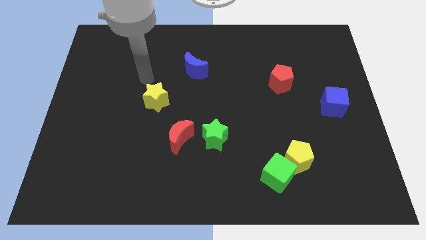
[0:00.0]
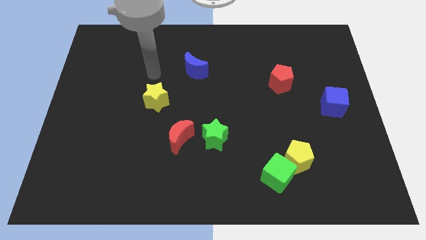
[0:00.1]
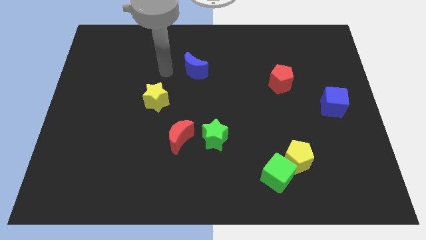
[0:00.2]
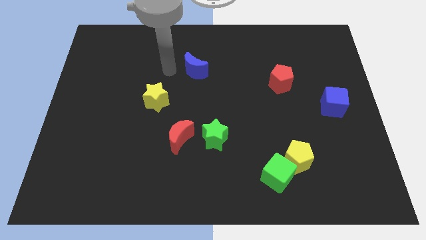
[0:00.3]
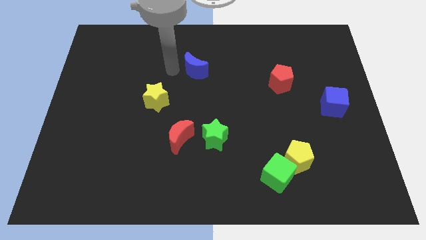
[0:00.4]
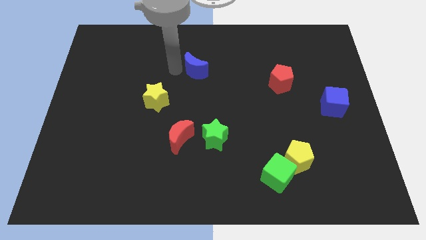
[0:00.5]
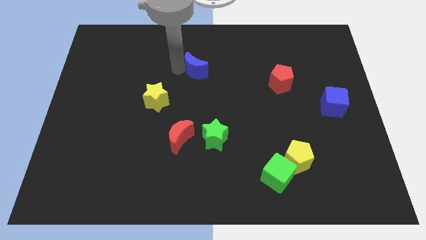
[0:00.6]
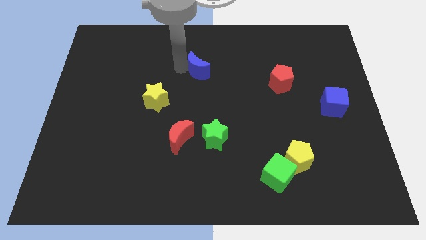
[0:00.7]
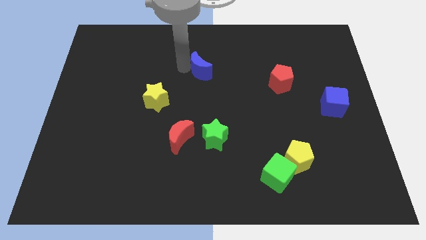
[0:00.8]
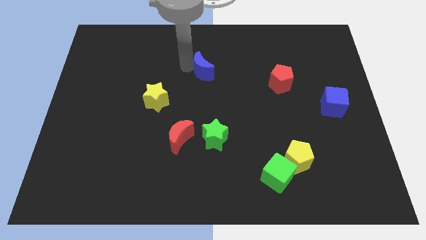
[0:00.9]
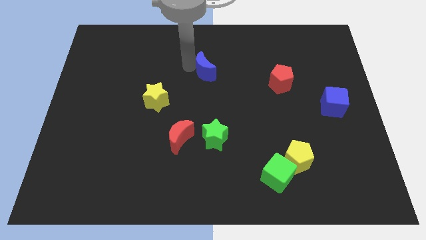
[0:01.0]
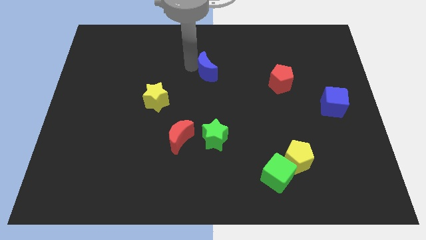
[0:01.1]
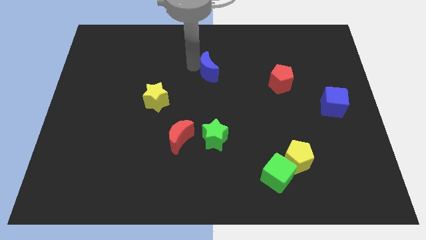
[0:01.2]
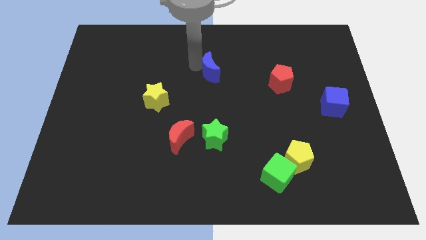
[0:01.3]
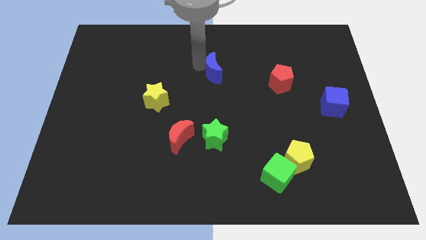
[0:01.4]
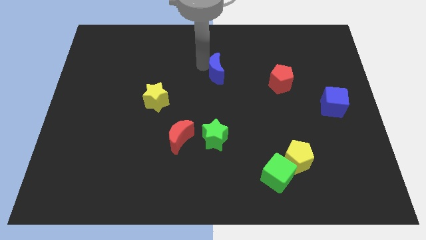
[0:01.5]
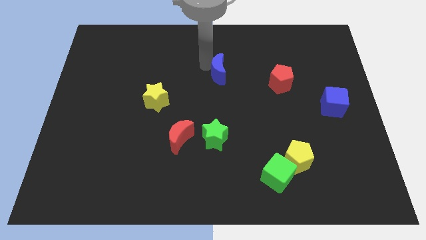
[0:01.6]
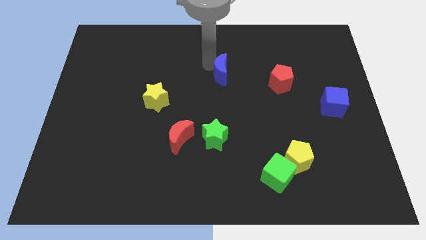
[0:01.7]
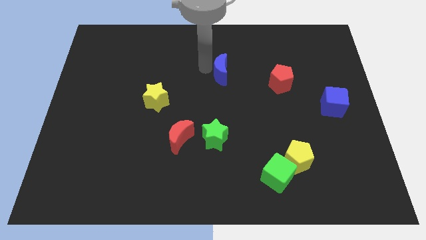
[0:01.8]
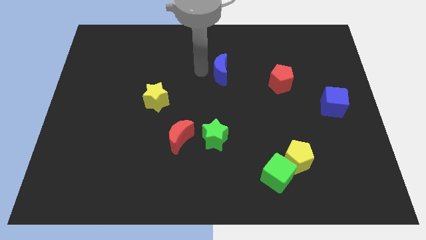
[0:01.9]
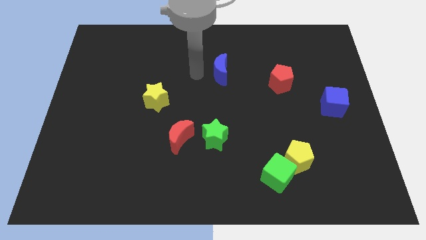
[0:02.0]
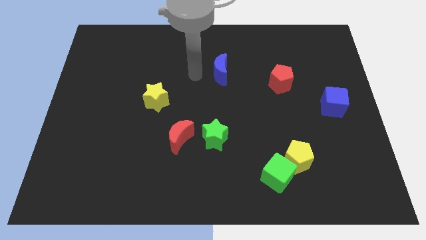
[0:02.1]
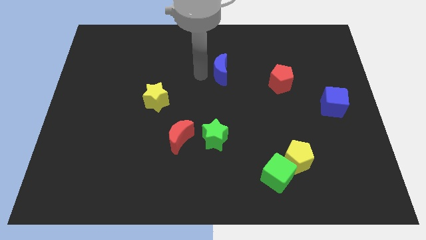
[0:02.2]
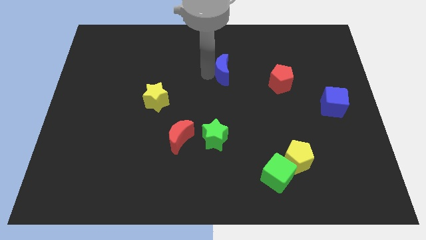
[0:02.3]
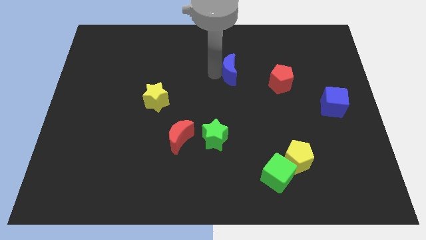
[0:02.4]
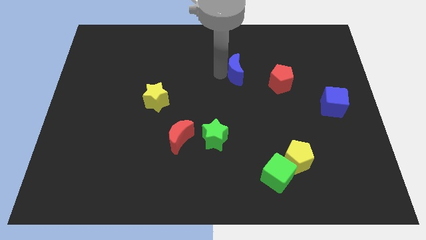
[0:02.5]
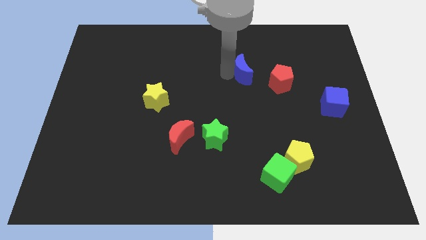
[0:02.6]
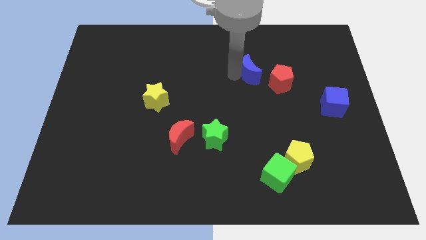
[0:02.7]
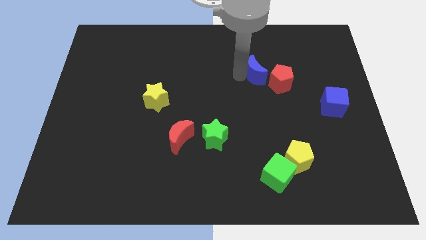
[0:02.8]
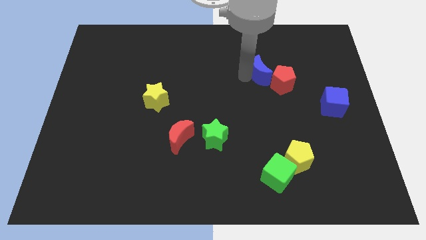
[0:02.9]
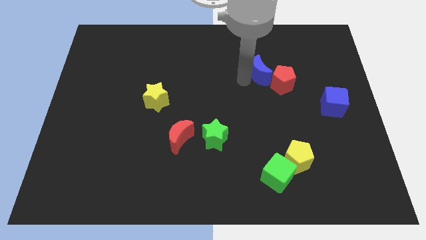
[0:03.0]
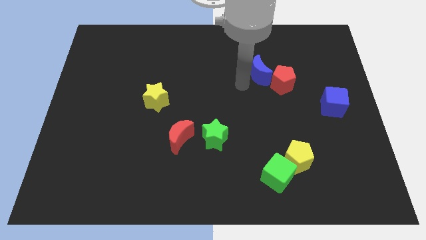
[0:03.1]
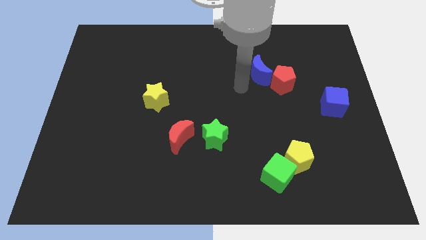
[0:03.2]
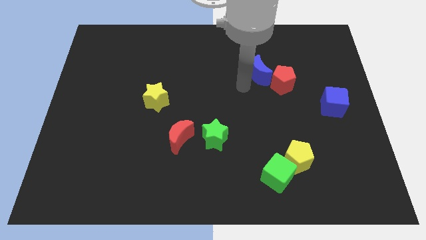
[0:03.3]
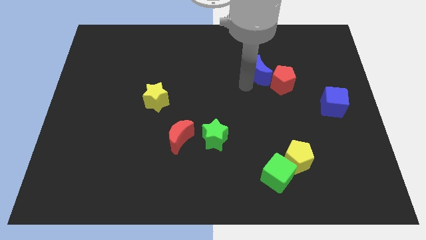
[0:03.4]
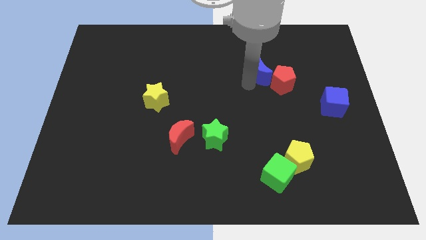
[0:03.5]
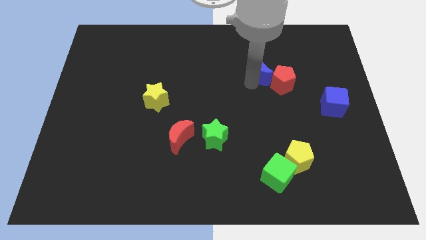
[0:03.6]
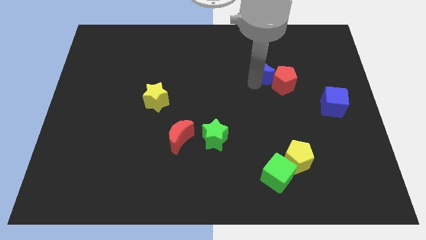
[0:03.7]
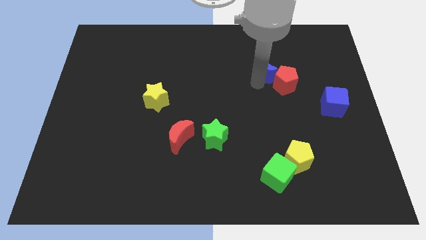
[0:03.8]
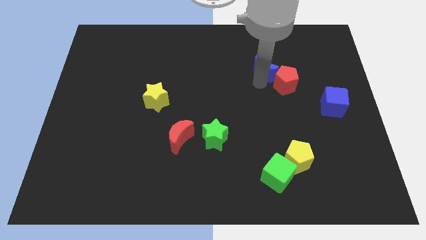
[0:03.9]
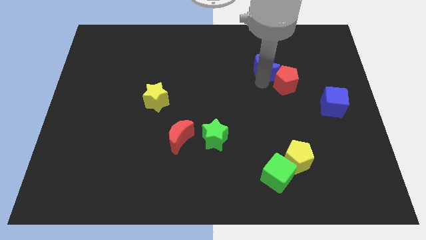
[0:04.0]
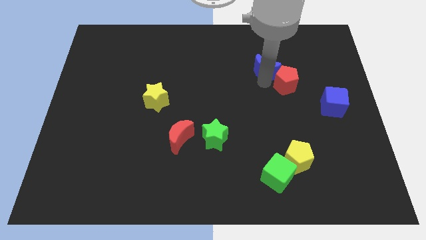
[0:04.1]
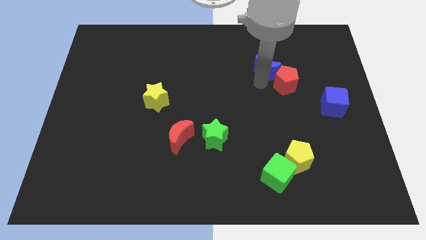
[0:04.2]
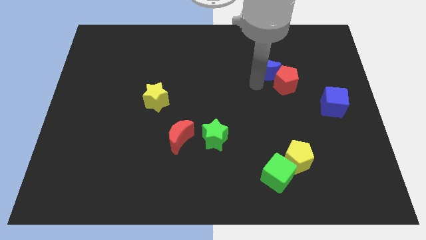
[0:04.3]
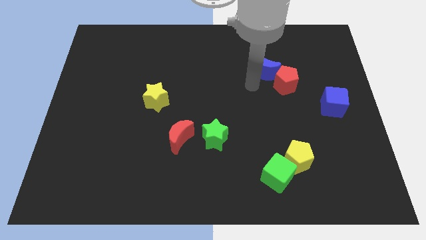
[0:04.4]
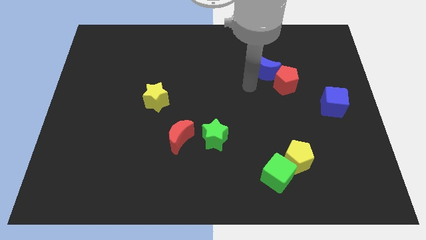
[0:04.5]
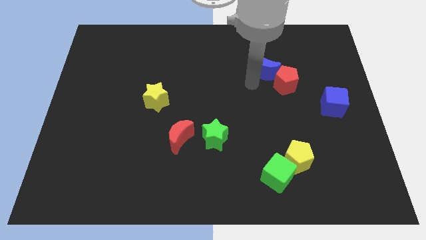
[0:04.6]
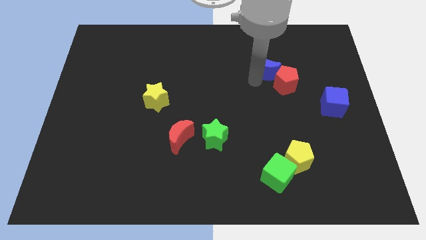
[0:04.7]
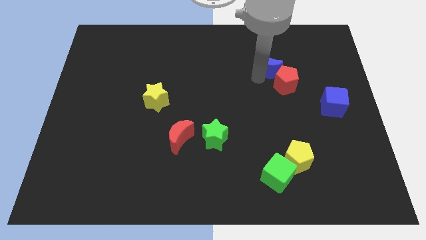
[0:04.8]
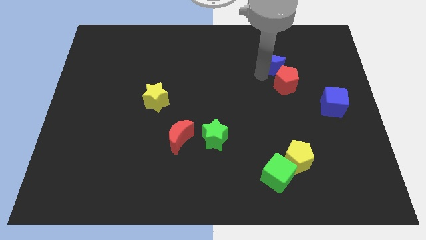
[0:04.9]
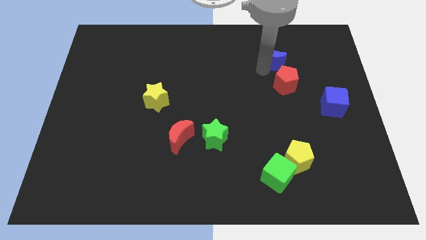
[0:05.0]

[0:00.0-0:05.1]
slide the blue moon to the right

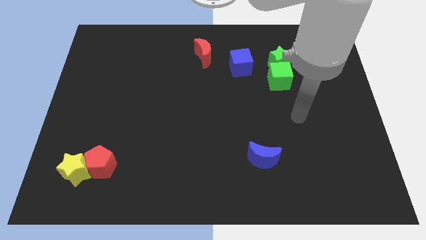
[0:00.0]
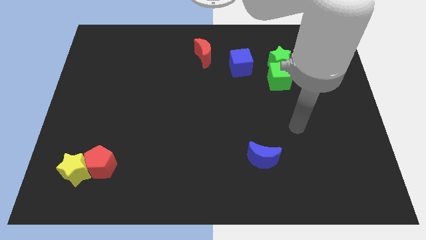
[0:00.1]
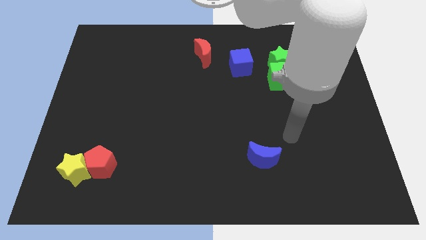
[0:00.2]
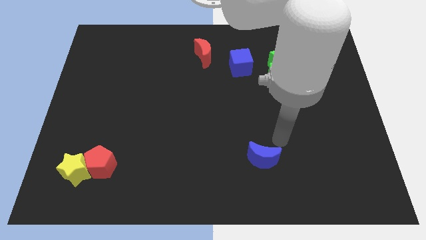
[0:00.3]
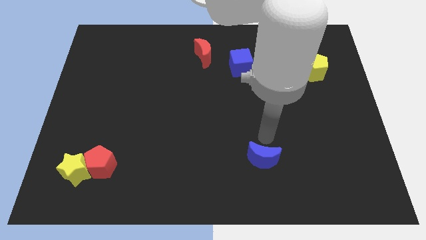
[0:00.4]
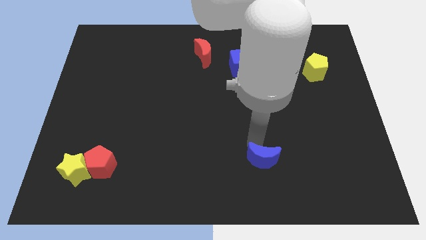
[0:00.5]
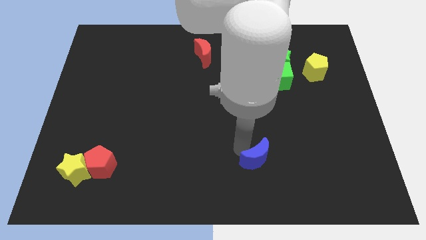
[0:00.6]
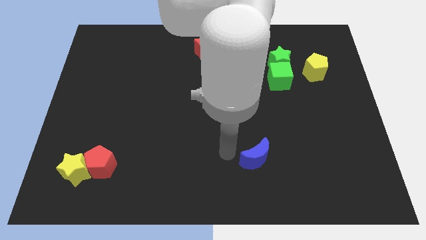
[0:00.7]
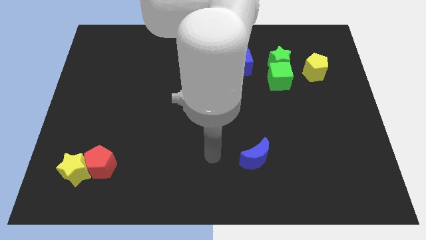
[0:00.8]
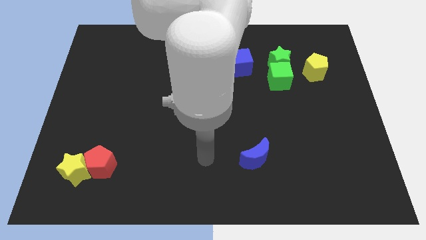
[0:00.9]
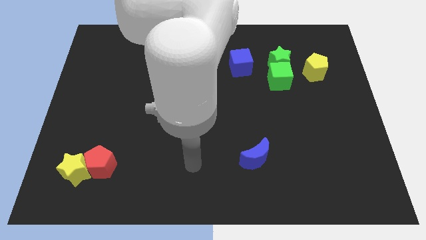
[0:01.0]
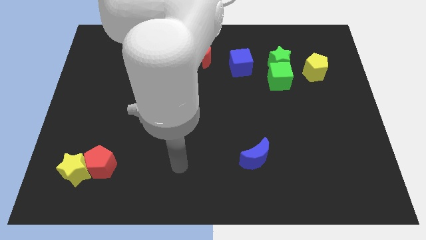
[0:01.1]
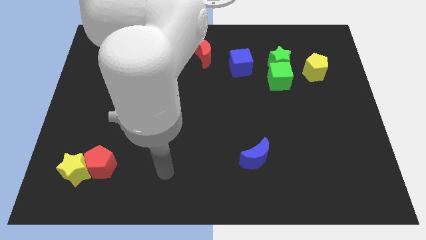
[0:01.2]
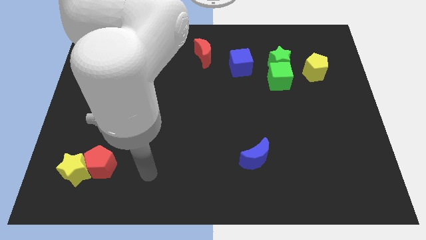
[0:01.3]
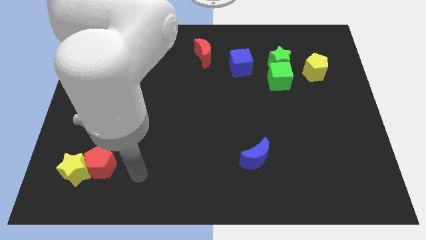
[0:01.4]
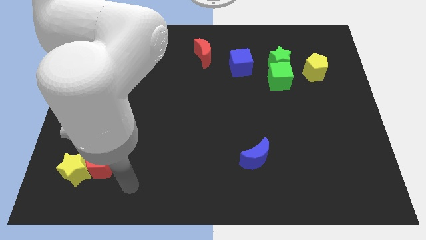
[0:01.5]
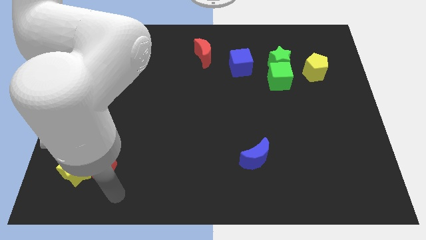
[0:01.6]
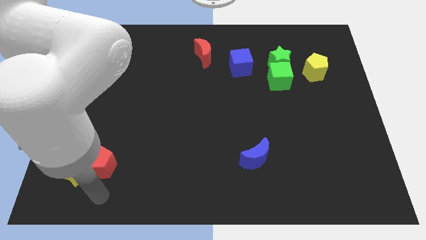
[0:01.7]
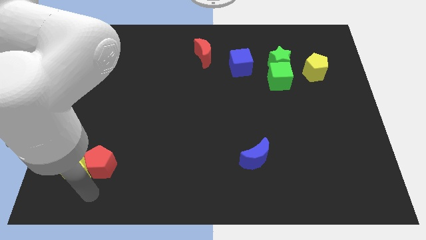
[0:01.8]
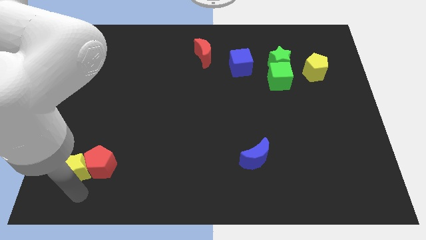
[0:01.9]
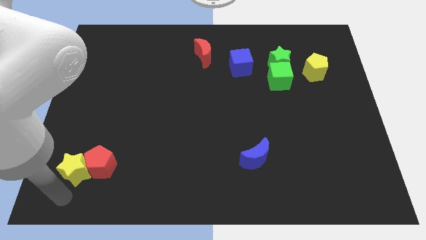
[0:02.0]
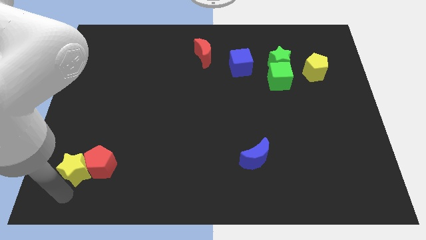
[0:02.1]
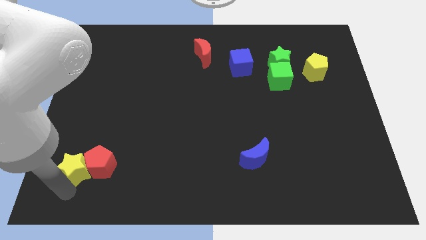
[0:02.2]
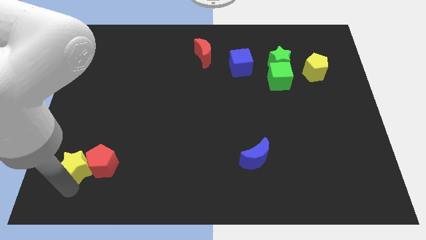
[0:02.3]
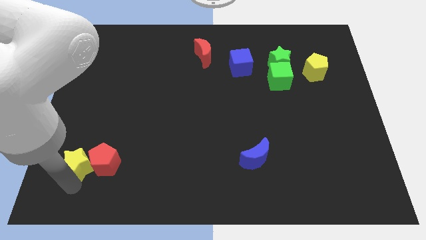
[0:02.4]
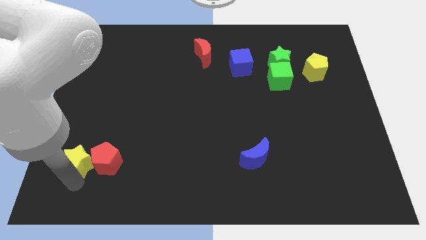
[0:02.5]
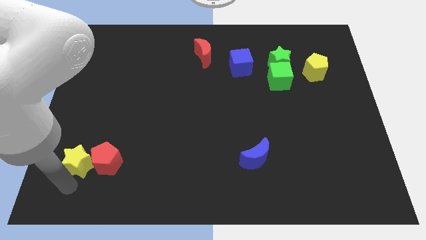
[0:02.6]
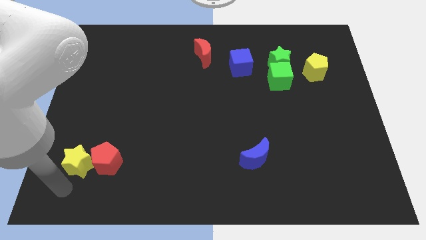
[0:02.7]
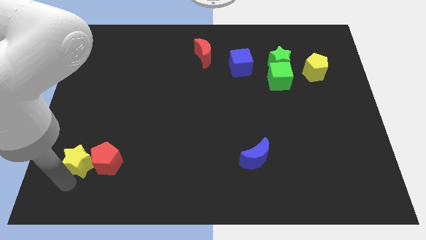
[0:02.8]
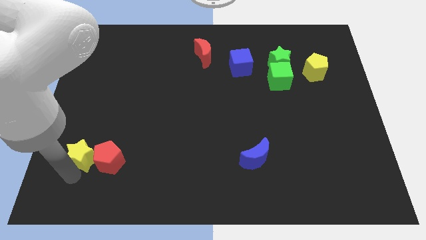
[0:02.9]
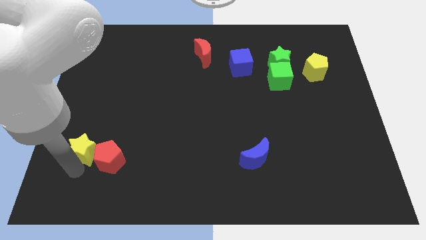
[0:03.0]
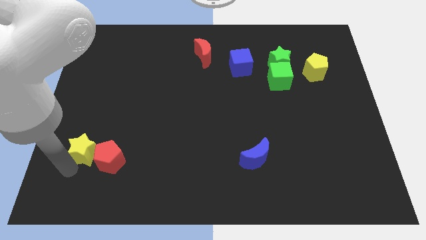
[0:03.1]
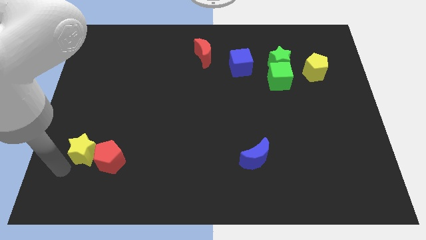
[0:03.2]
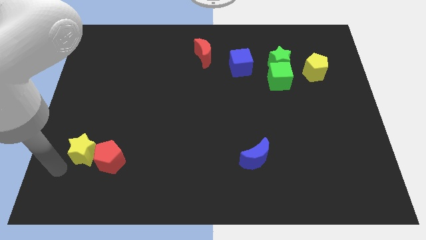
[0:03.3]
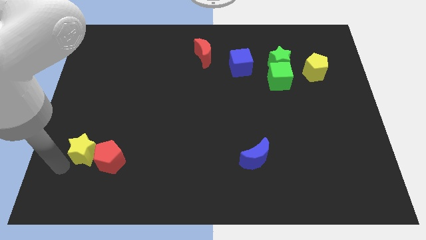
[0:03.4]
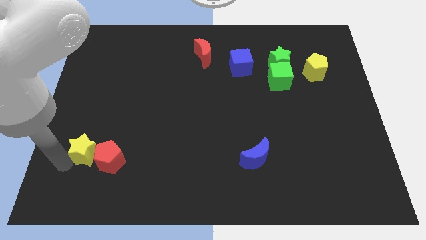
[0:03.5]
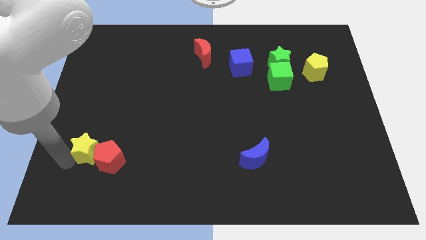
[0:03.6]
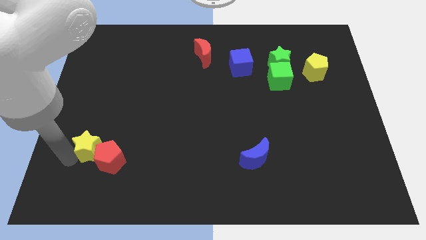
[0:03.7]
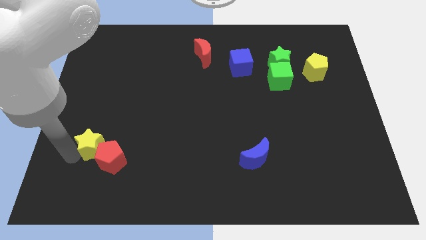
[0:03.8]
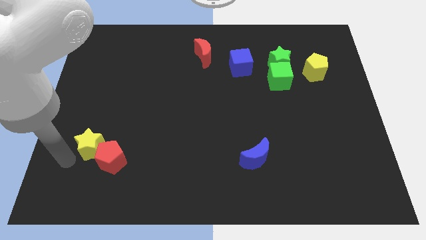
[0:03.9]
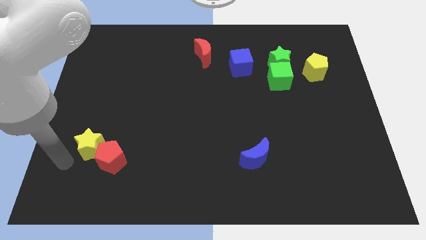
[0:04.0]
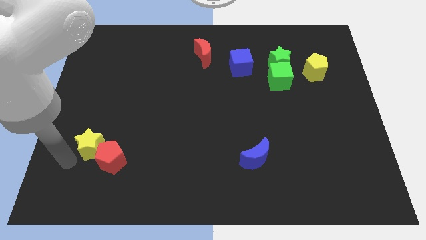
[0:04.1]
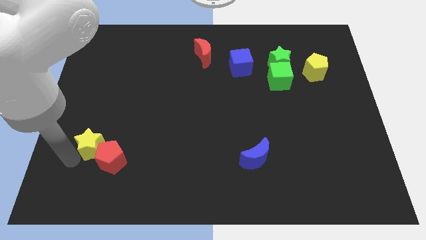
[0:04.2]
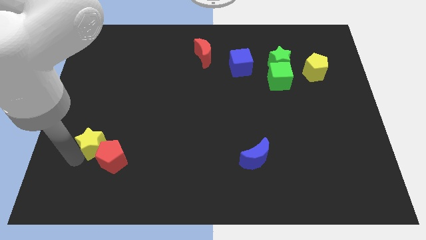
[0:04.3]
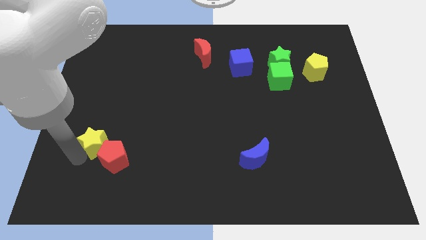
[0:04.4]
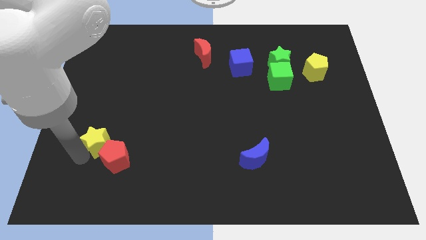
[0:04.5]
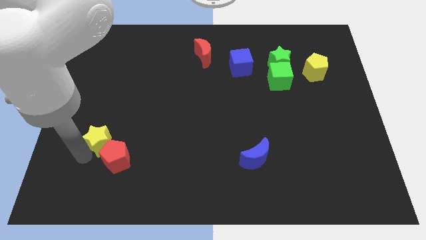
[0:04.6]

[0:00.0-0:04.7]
slide the yellow star slightly diagonally upwards and to the right
